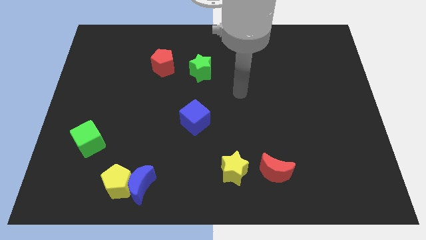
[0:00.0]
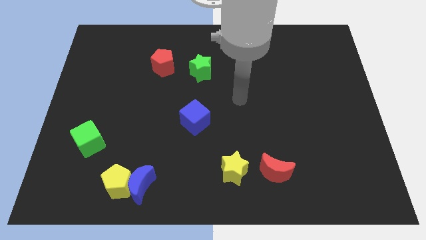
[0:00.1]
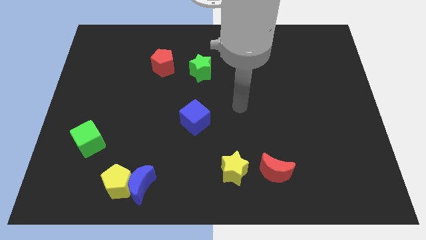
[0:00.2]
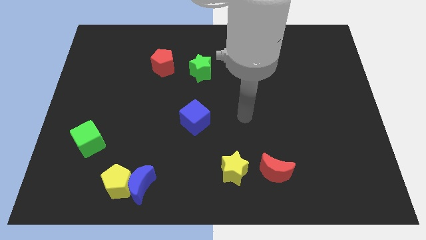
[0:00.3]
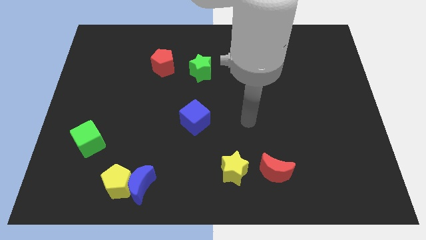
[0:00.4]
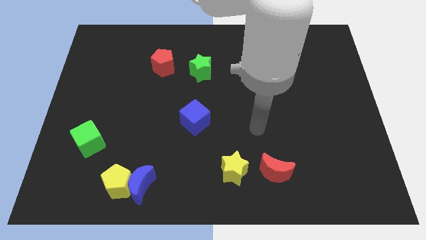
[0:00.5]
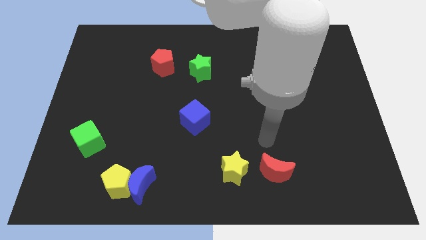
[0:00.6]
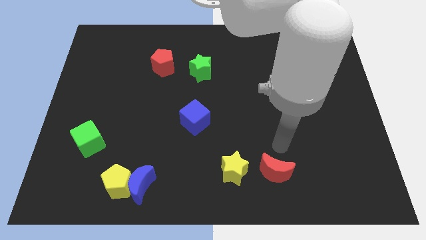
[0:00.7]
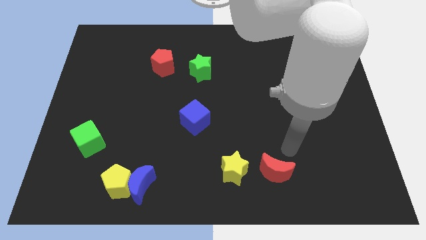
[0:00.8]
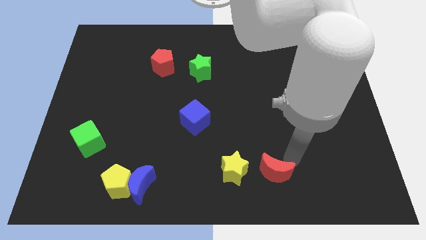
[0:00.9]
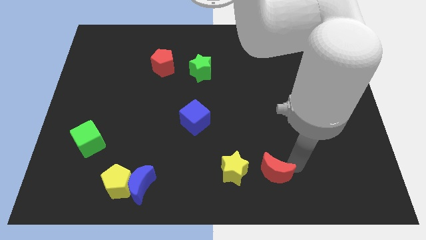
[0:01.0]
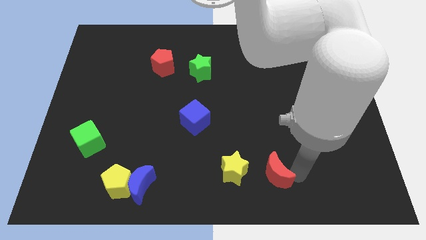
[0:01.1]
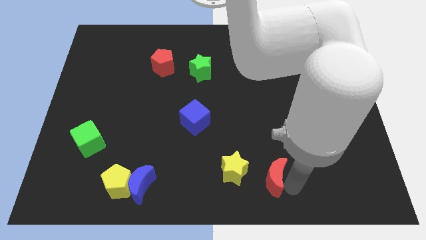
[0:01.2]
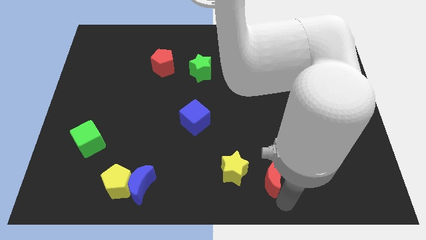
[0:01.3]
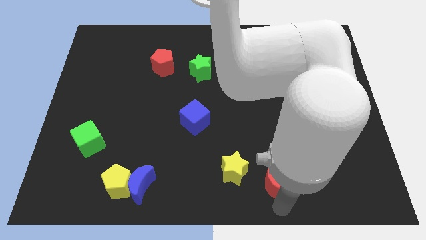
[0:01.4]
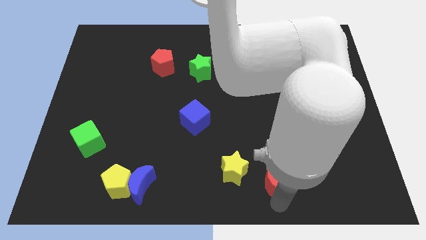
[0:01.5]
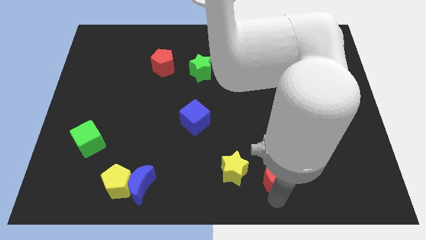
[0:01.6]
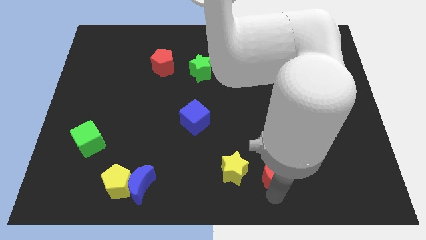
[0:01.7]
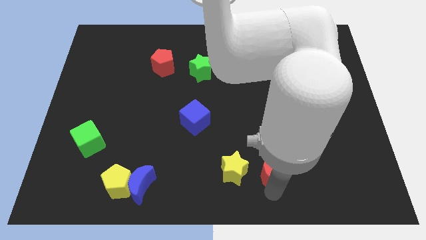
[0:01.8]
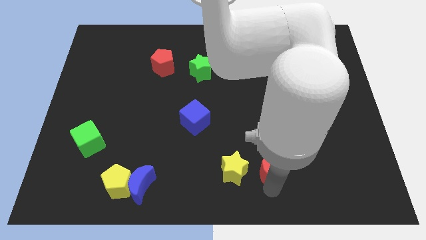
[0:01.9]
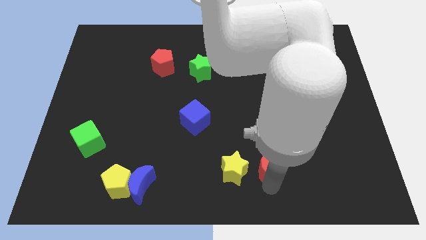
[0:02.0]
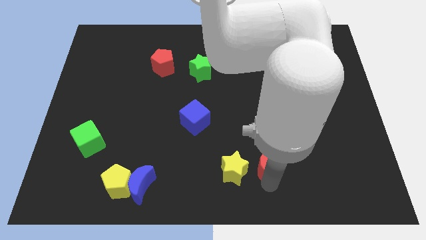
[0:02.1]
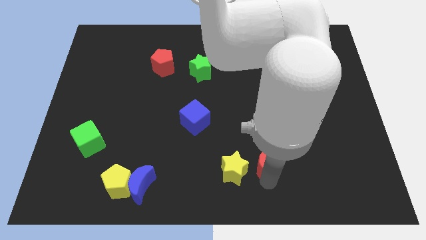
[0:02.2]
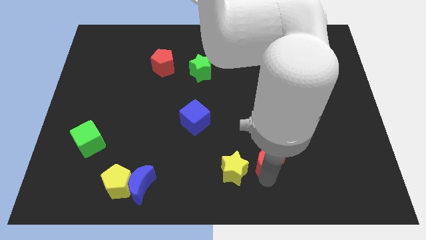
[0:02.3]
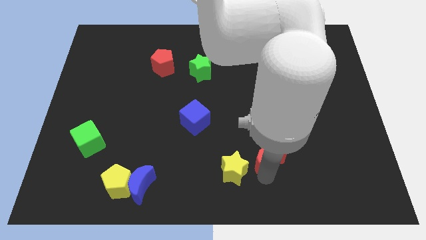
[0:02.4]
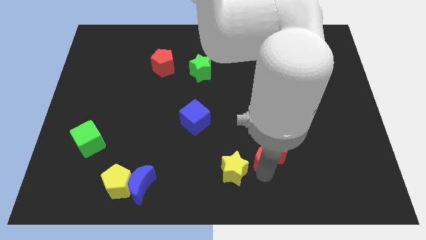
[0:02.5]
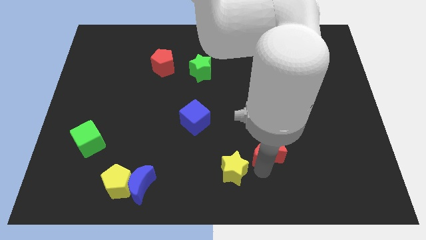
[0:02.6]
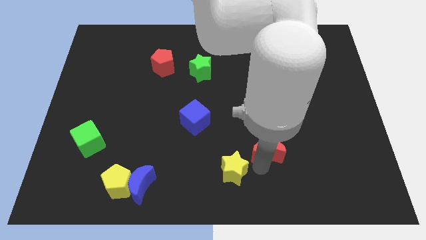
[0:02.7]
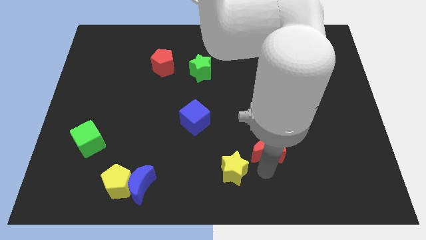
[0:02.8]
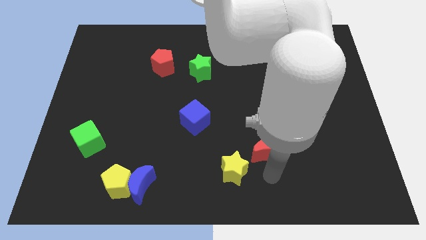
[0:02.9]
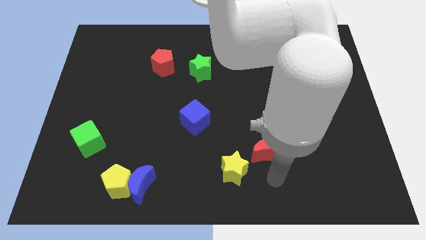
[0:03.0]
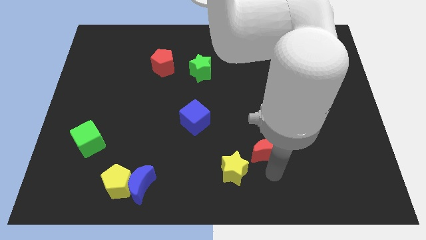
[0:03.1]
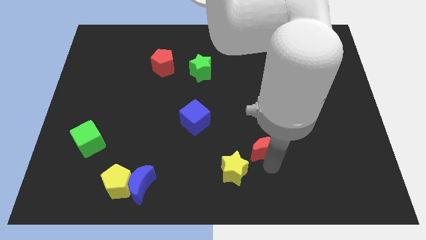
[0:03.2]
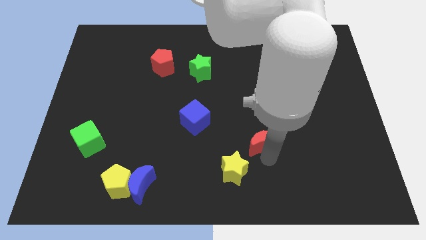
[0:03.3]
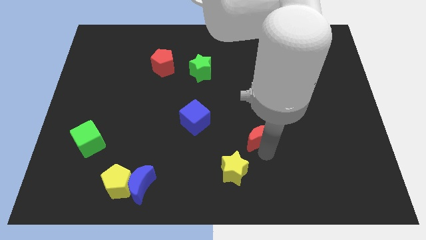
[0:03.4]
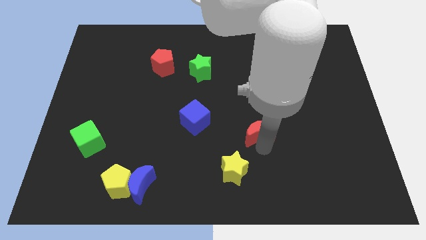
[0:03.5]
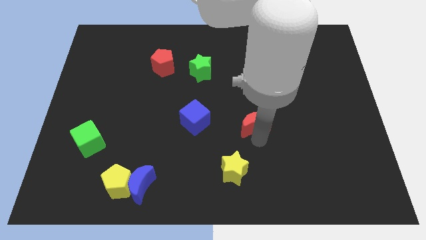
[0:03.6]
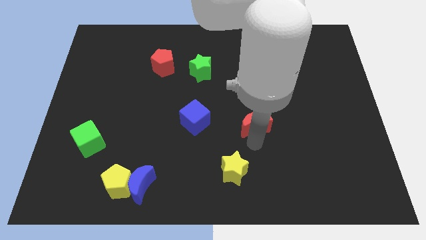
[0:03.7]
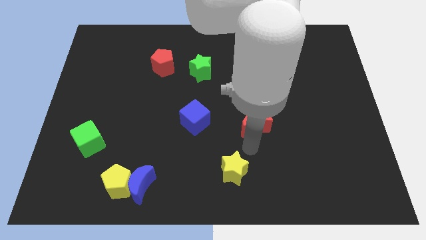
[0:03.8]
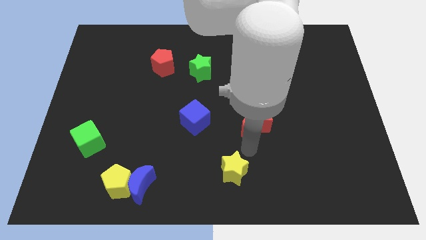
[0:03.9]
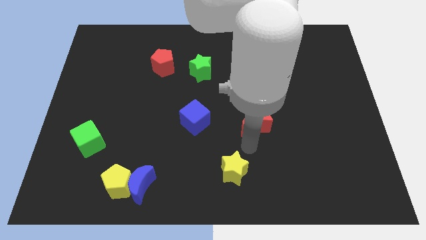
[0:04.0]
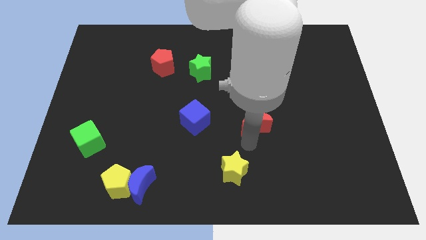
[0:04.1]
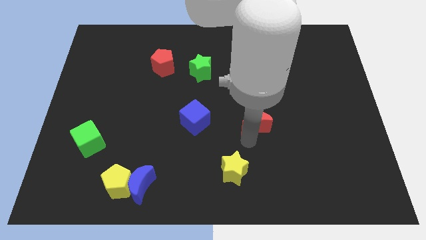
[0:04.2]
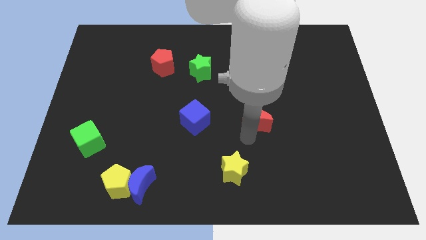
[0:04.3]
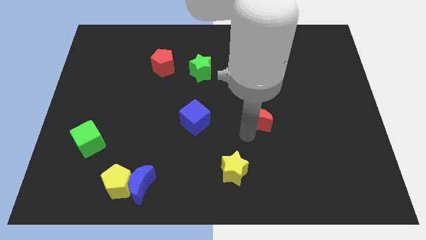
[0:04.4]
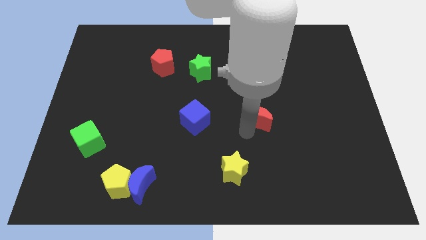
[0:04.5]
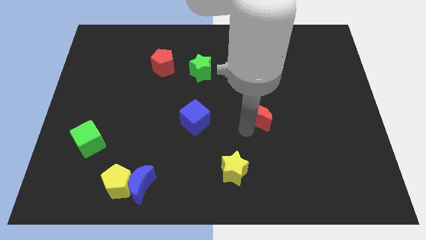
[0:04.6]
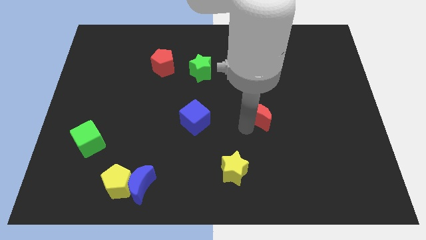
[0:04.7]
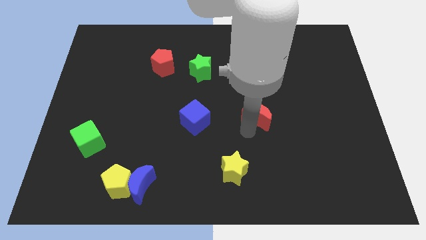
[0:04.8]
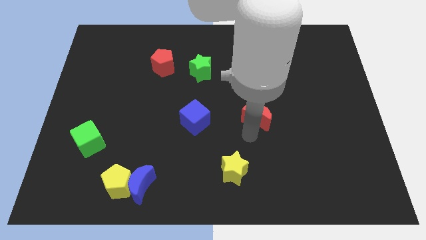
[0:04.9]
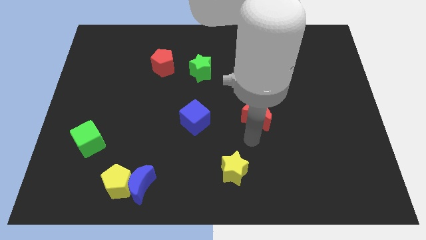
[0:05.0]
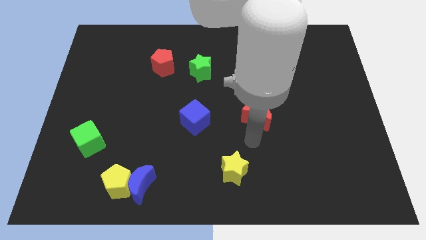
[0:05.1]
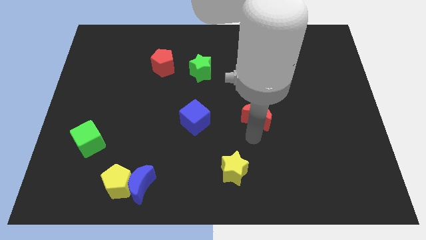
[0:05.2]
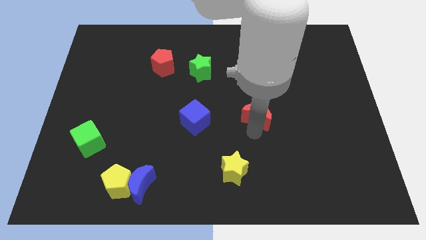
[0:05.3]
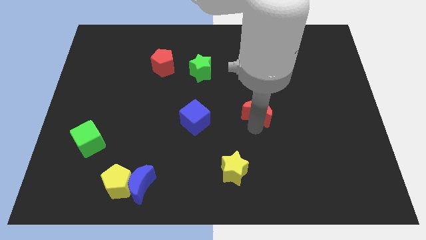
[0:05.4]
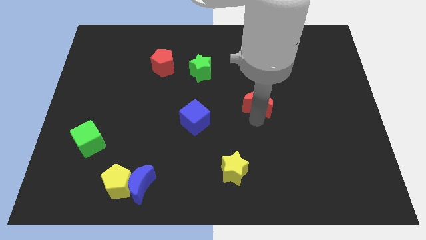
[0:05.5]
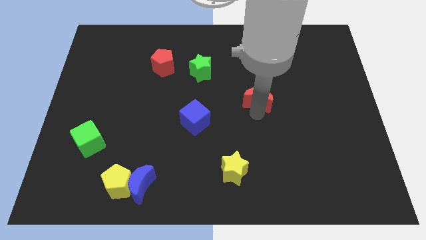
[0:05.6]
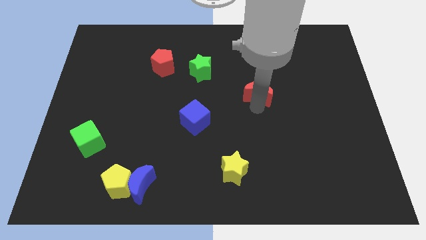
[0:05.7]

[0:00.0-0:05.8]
slide the red moon up

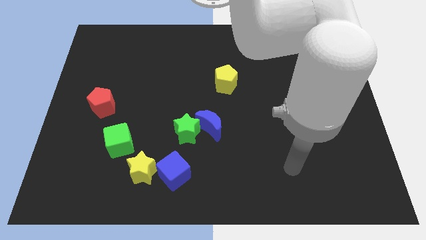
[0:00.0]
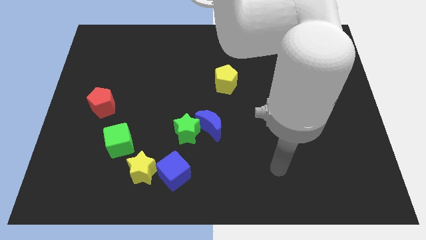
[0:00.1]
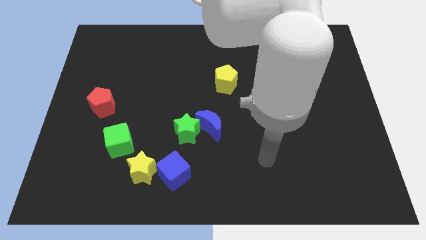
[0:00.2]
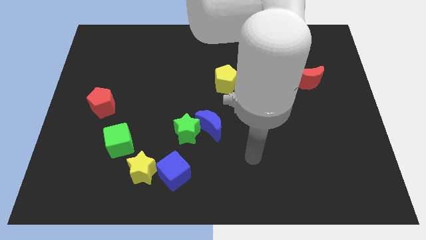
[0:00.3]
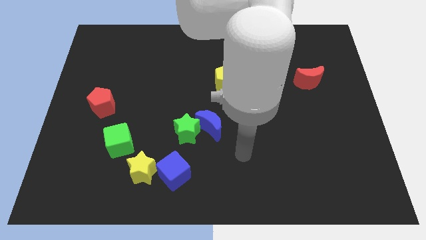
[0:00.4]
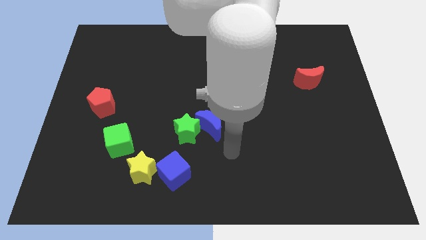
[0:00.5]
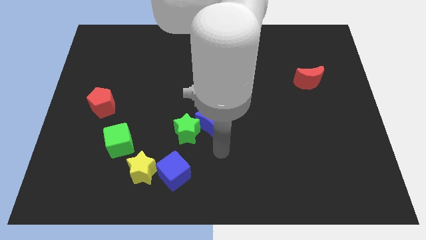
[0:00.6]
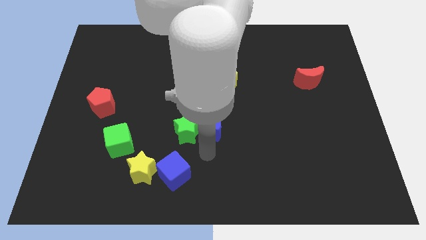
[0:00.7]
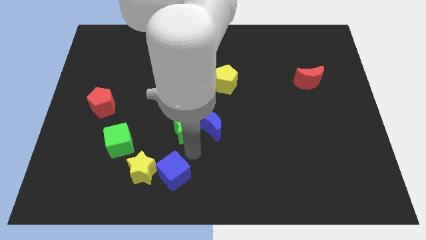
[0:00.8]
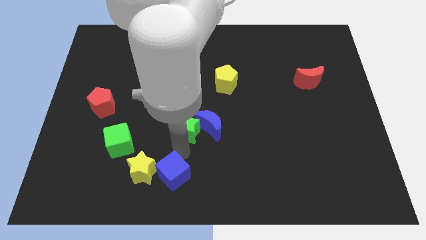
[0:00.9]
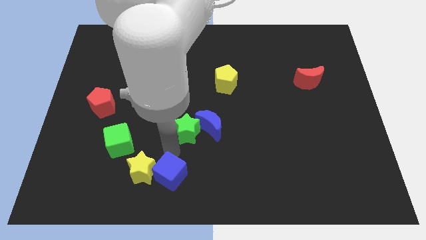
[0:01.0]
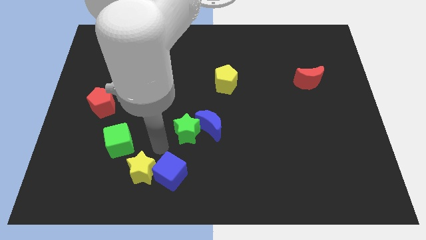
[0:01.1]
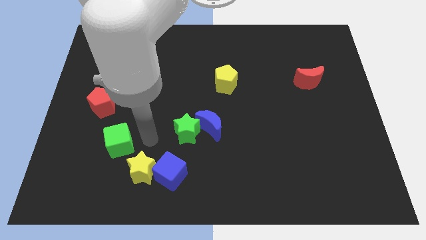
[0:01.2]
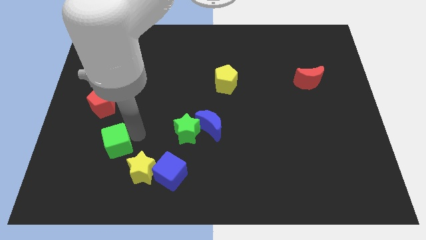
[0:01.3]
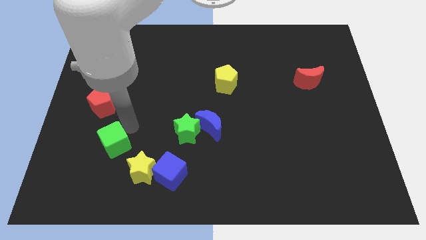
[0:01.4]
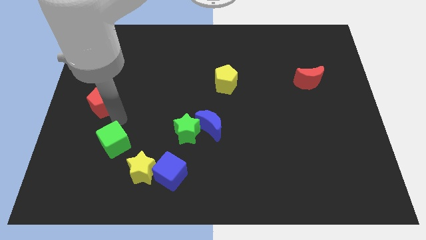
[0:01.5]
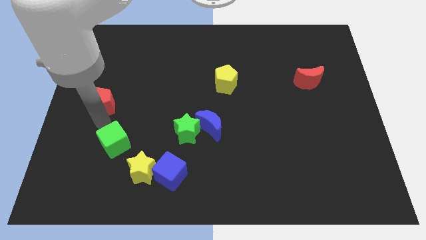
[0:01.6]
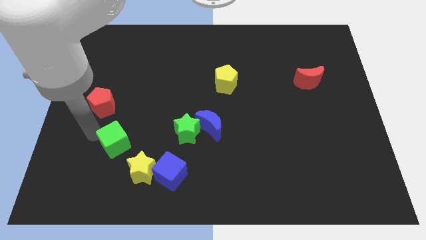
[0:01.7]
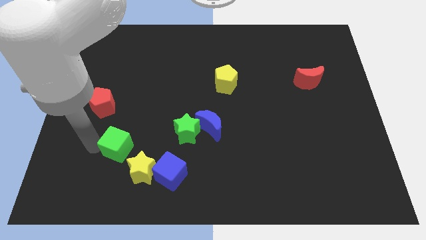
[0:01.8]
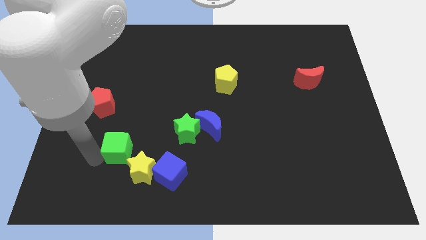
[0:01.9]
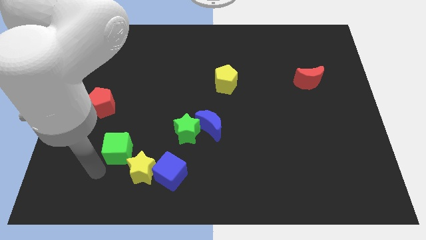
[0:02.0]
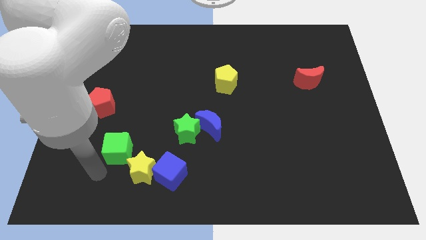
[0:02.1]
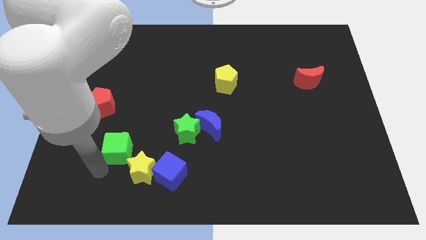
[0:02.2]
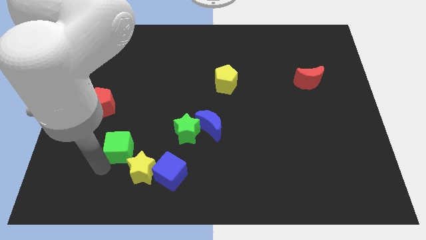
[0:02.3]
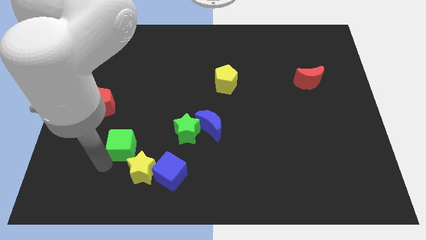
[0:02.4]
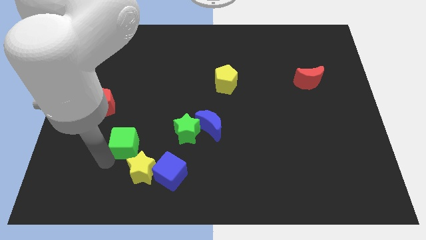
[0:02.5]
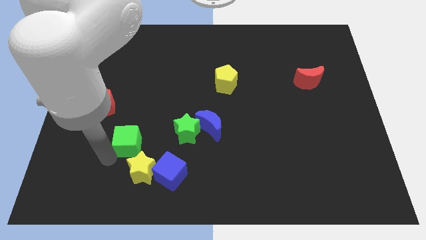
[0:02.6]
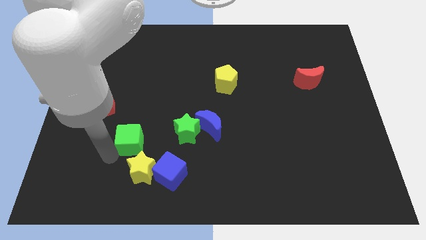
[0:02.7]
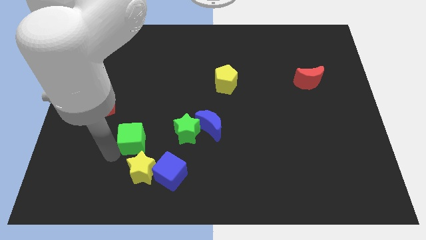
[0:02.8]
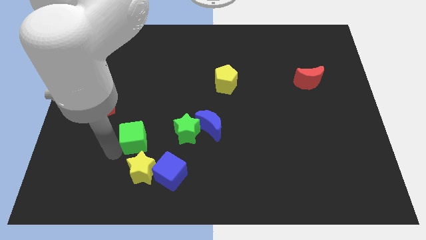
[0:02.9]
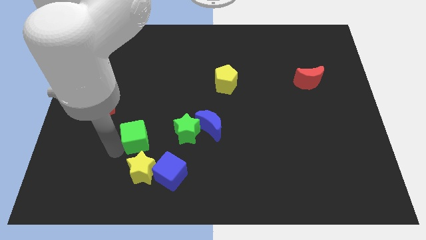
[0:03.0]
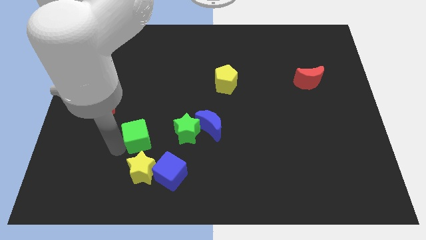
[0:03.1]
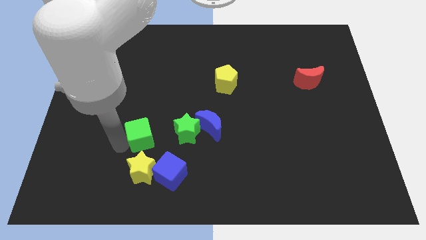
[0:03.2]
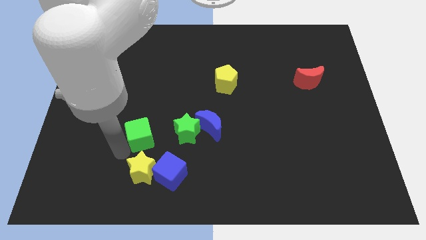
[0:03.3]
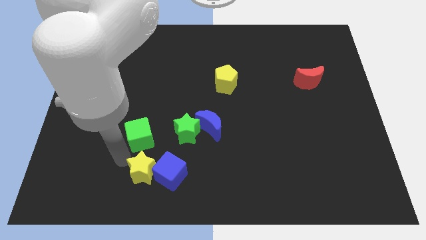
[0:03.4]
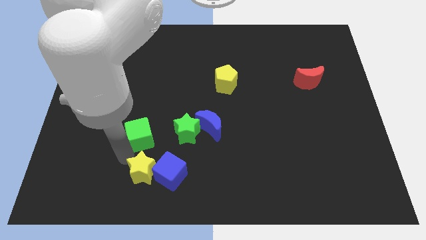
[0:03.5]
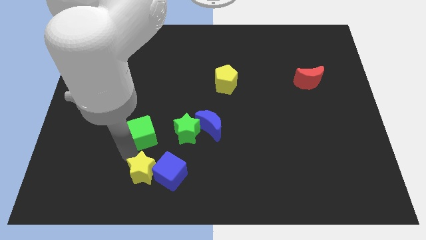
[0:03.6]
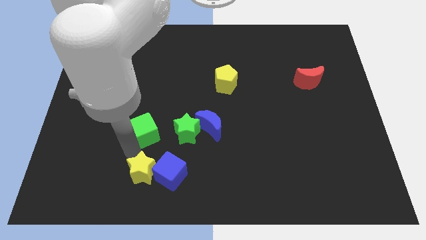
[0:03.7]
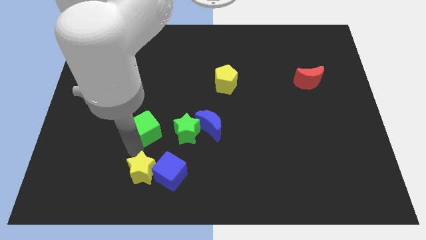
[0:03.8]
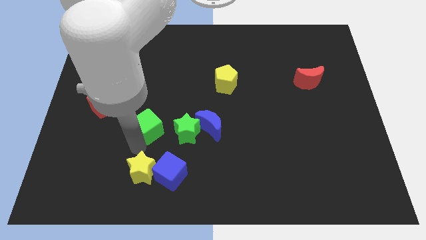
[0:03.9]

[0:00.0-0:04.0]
slide the green cube upwards and right diagonally a bit
